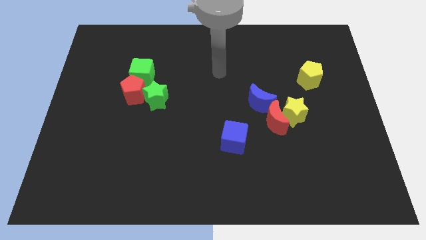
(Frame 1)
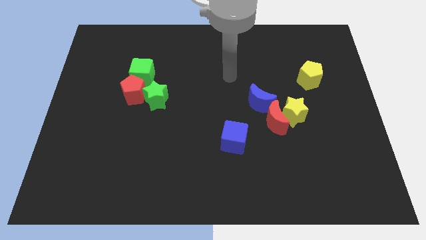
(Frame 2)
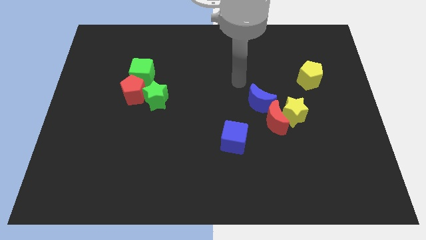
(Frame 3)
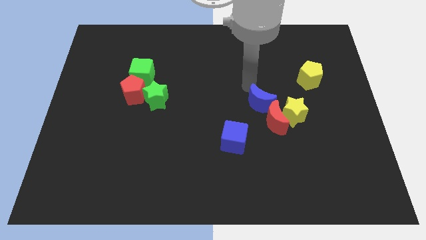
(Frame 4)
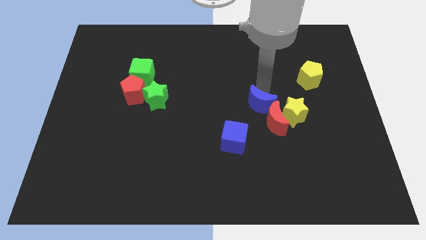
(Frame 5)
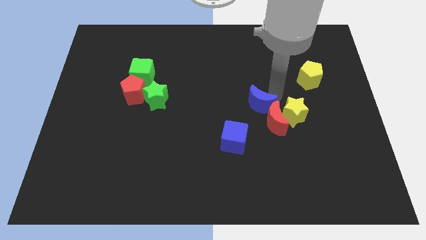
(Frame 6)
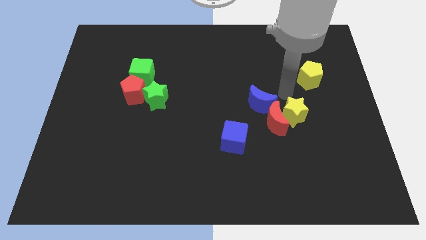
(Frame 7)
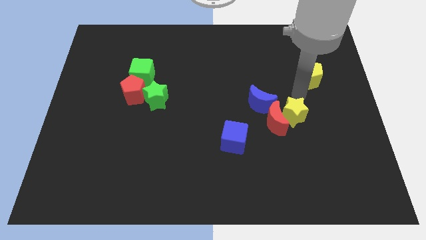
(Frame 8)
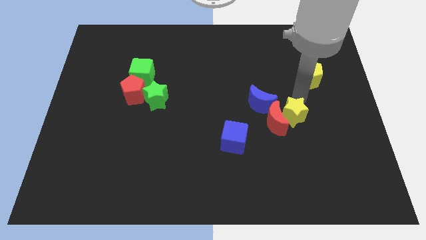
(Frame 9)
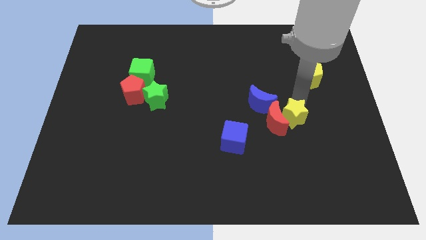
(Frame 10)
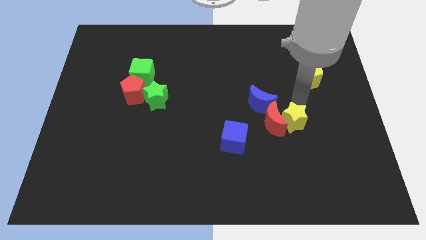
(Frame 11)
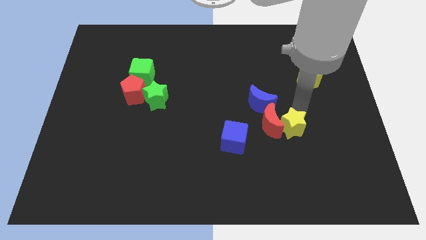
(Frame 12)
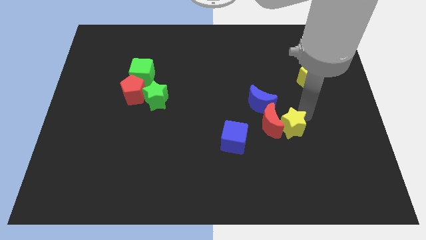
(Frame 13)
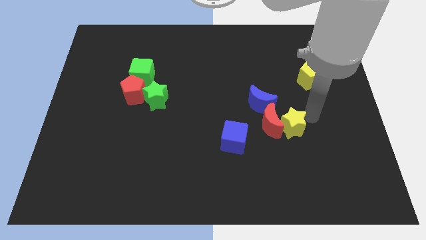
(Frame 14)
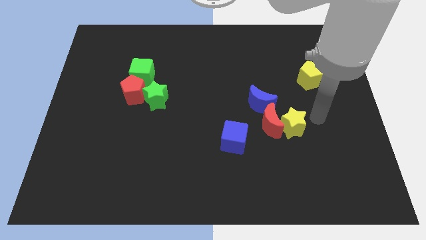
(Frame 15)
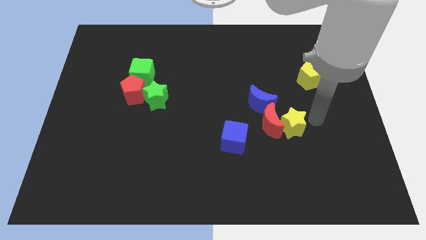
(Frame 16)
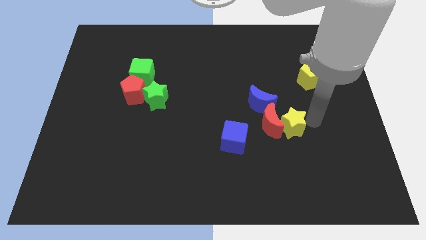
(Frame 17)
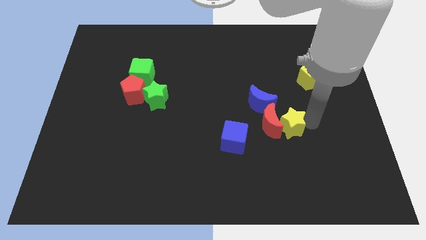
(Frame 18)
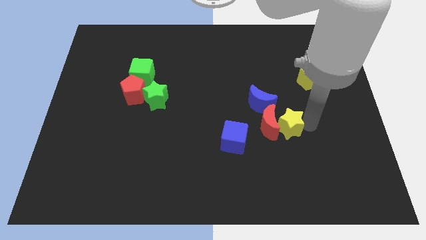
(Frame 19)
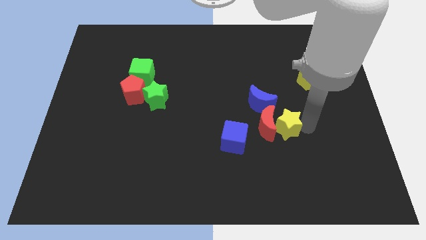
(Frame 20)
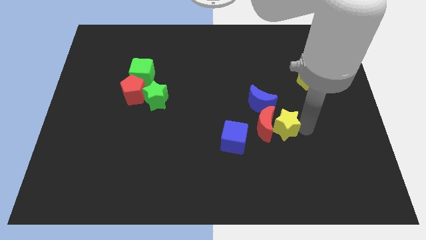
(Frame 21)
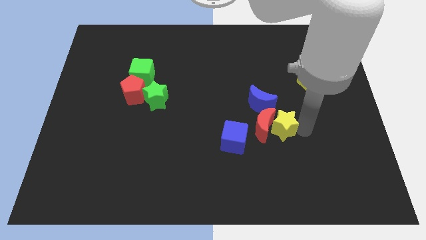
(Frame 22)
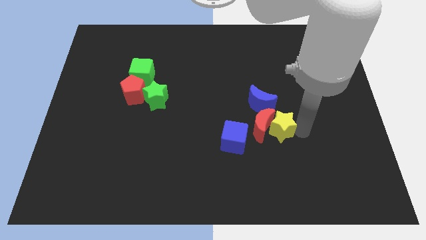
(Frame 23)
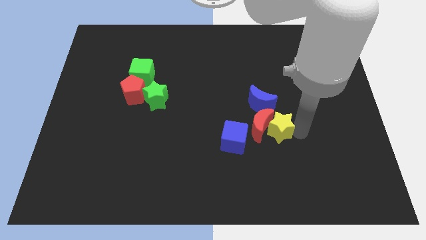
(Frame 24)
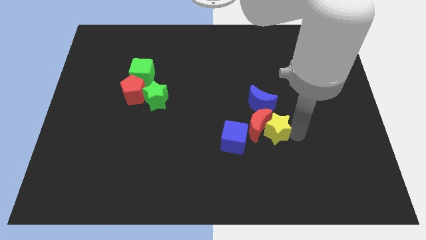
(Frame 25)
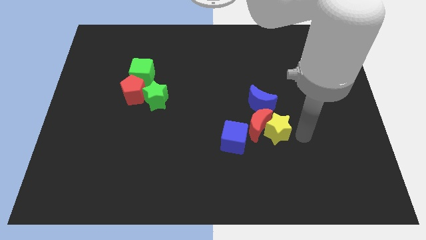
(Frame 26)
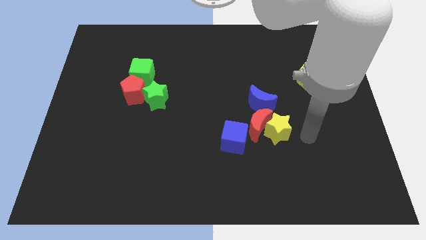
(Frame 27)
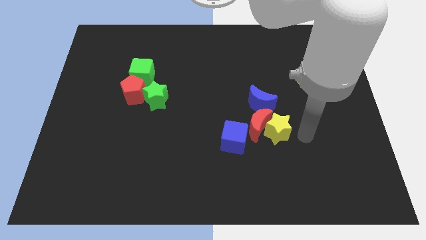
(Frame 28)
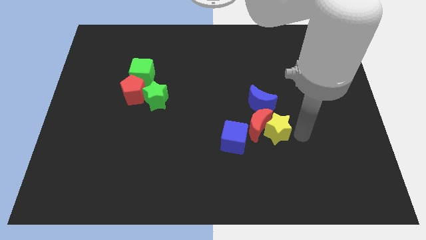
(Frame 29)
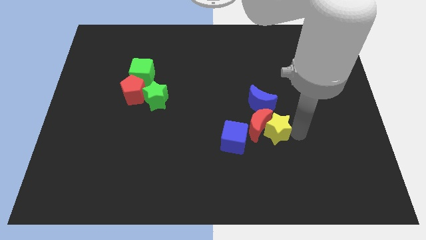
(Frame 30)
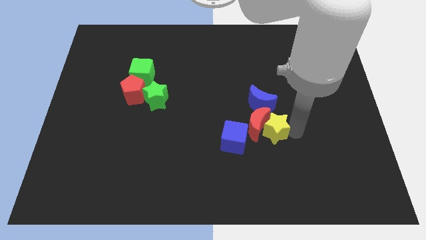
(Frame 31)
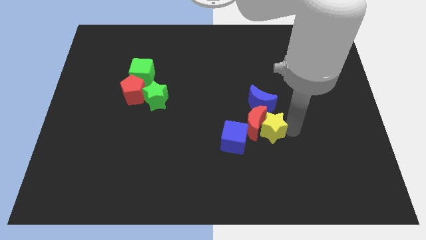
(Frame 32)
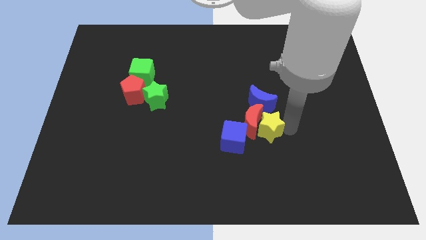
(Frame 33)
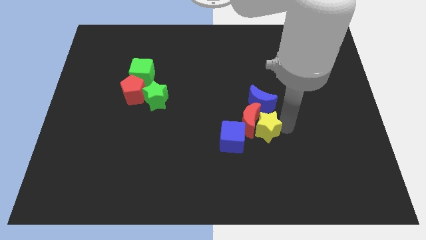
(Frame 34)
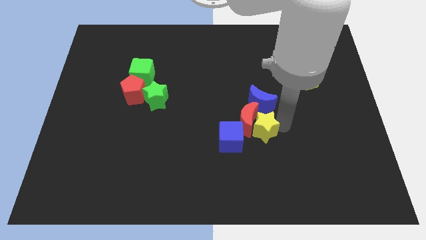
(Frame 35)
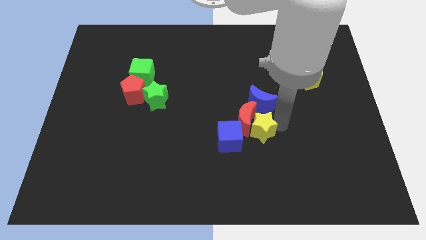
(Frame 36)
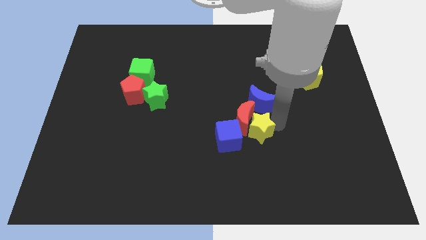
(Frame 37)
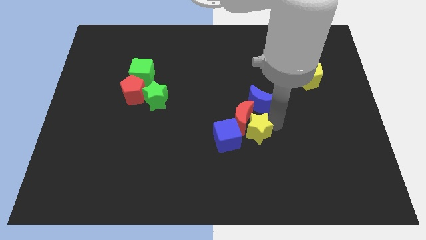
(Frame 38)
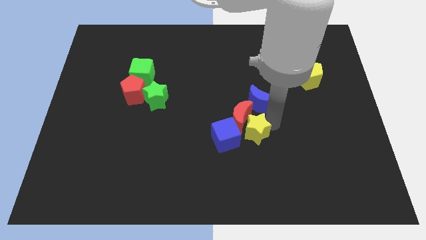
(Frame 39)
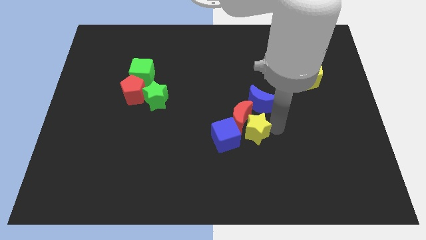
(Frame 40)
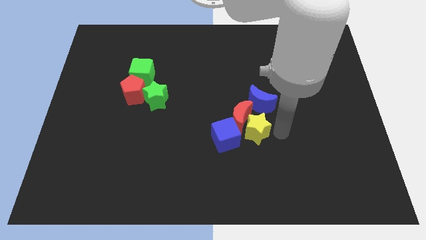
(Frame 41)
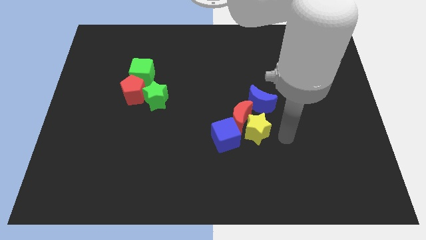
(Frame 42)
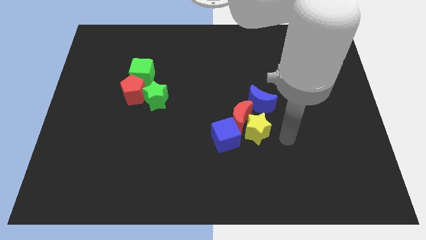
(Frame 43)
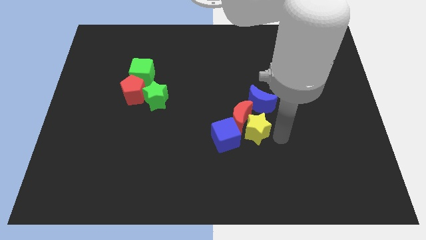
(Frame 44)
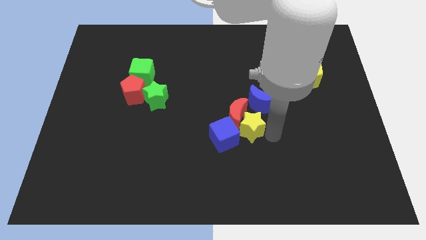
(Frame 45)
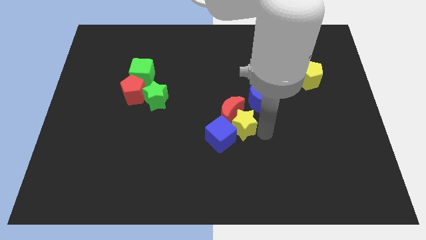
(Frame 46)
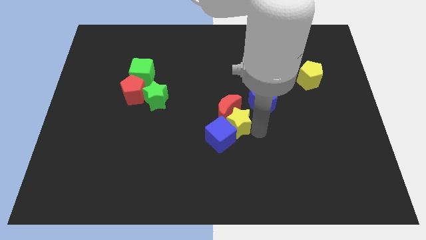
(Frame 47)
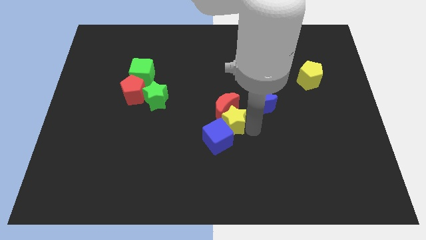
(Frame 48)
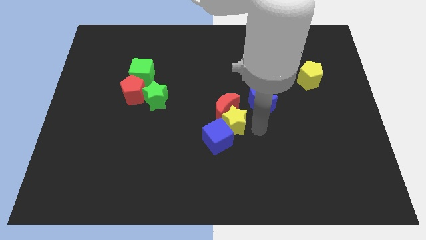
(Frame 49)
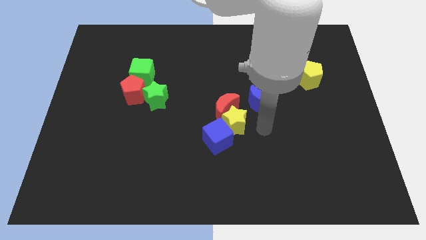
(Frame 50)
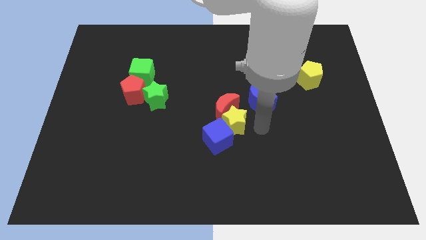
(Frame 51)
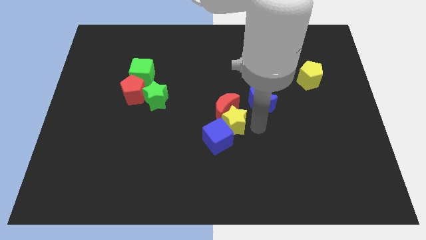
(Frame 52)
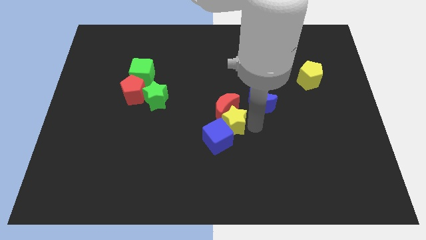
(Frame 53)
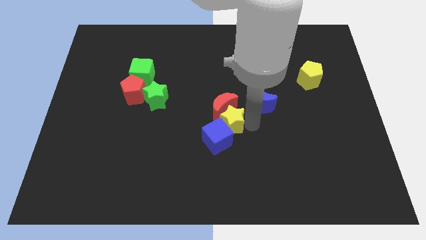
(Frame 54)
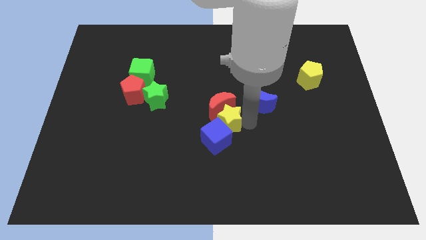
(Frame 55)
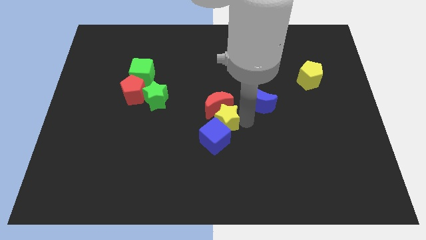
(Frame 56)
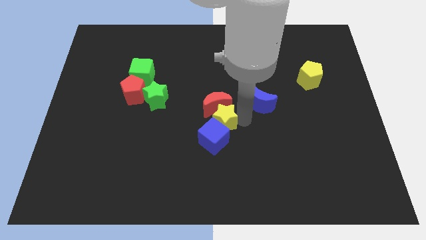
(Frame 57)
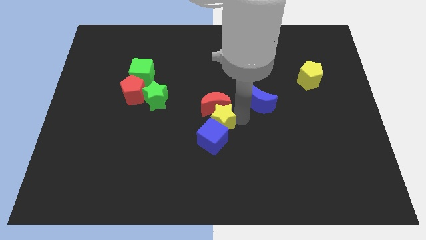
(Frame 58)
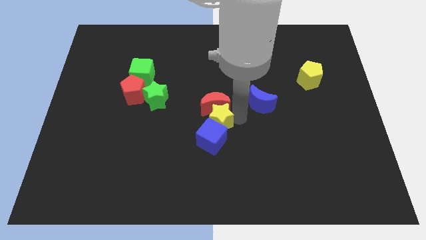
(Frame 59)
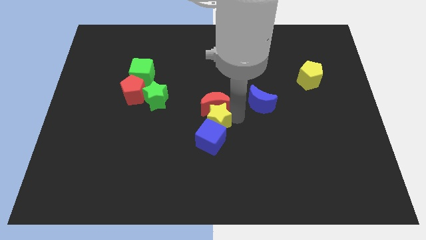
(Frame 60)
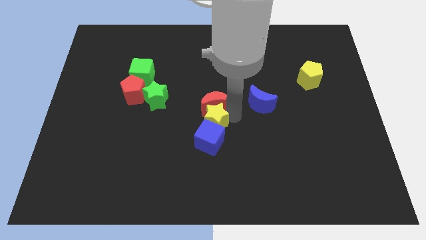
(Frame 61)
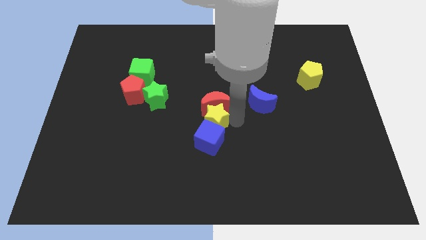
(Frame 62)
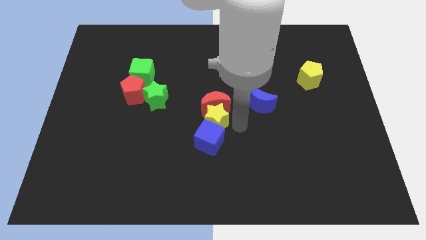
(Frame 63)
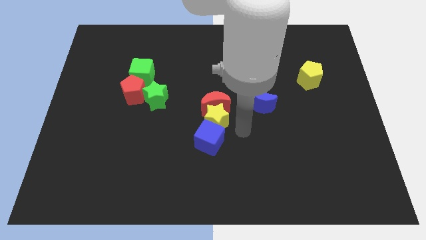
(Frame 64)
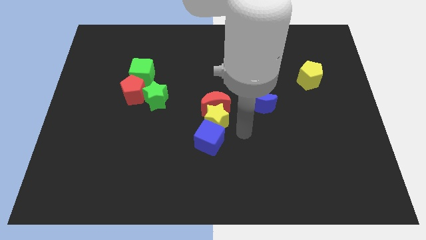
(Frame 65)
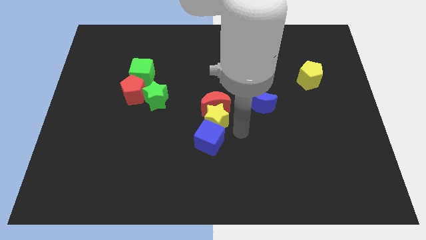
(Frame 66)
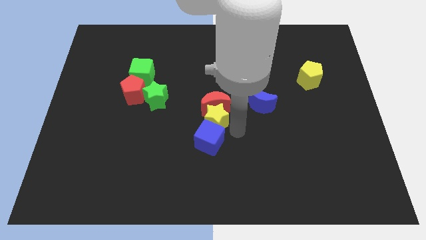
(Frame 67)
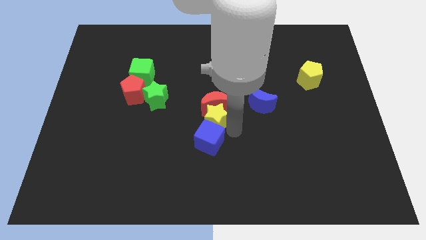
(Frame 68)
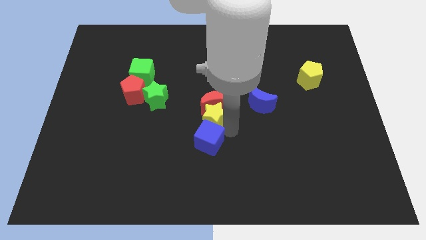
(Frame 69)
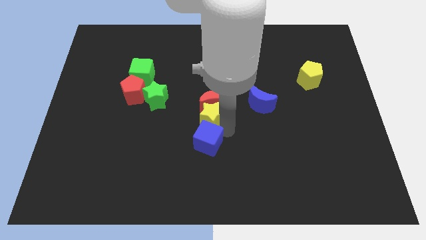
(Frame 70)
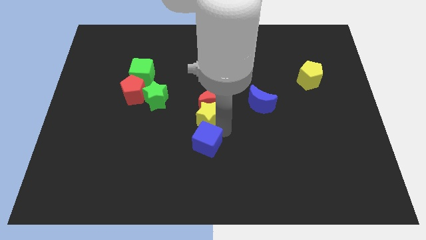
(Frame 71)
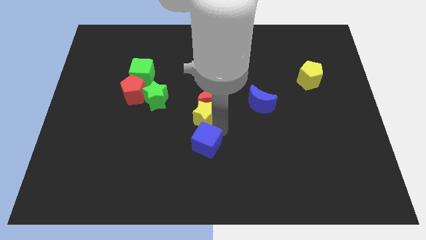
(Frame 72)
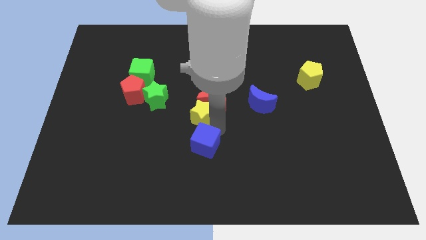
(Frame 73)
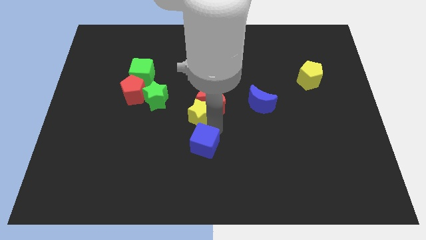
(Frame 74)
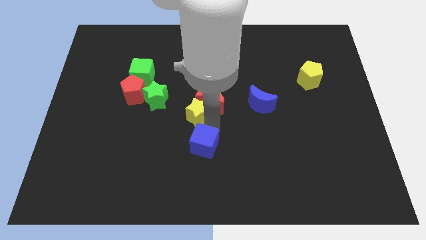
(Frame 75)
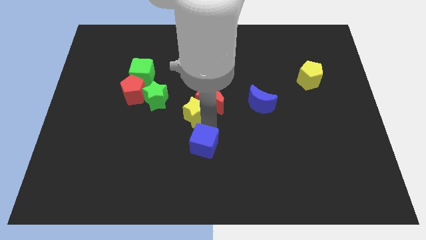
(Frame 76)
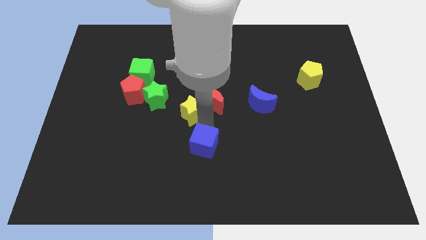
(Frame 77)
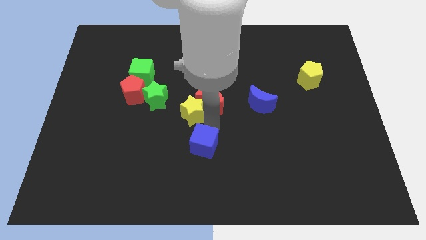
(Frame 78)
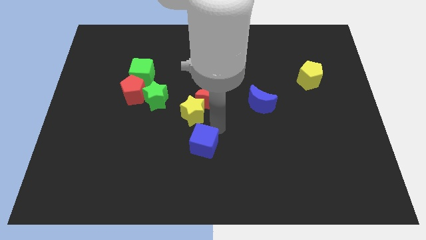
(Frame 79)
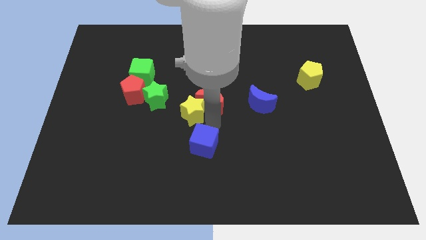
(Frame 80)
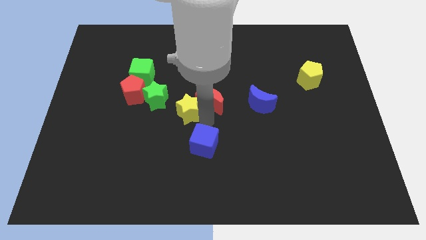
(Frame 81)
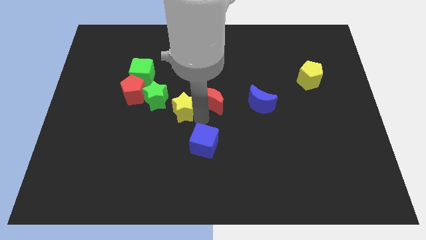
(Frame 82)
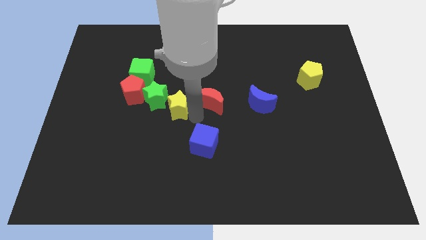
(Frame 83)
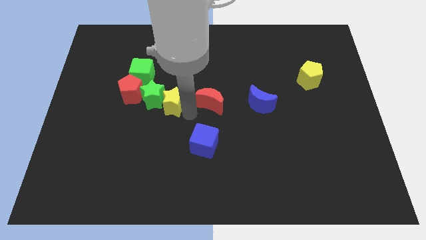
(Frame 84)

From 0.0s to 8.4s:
move the yellow star towards the green star
